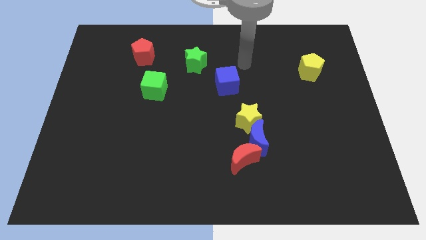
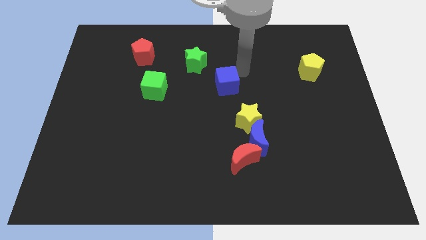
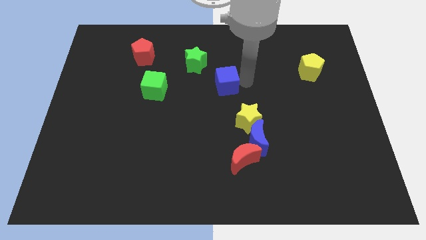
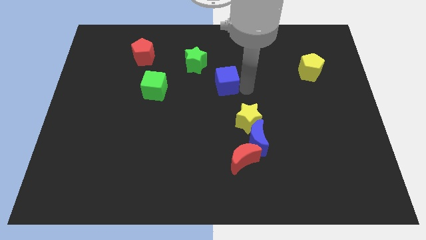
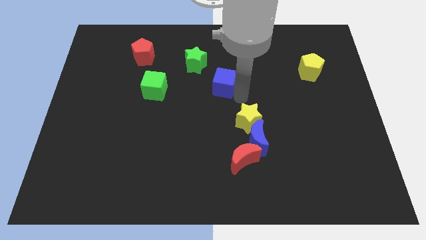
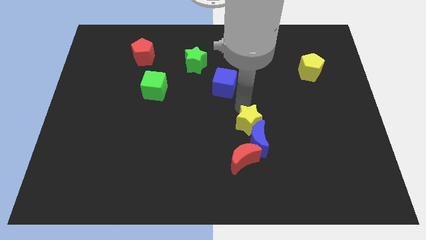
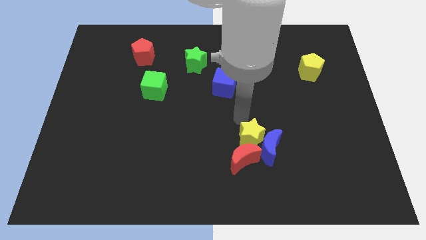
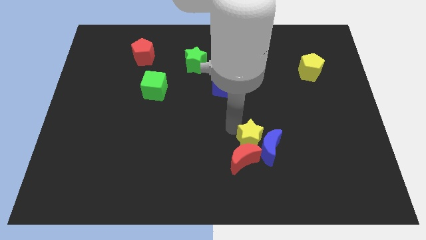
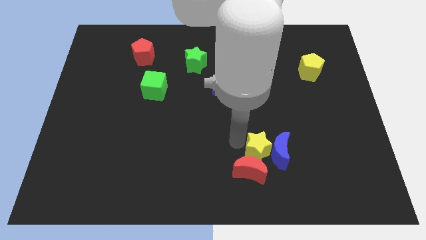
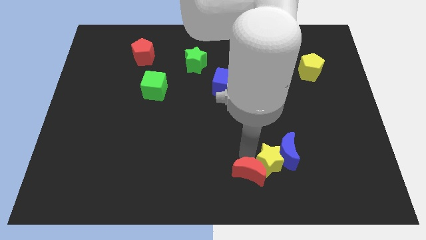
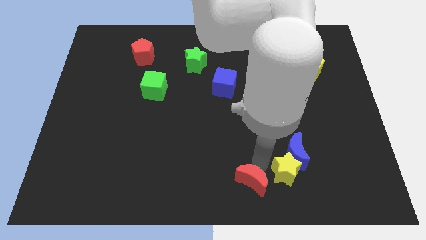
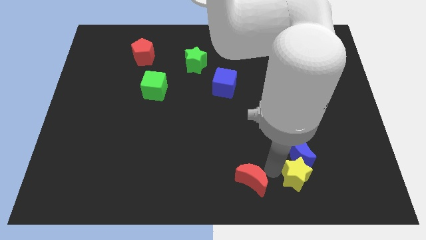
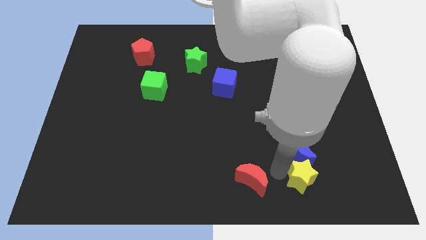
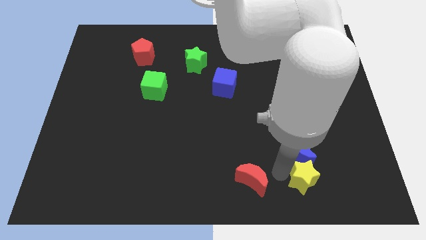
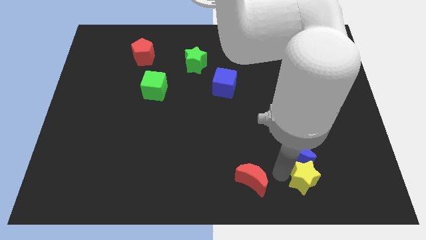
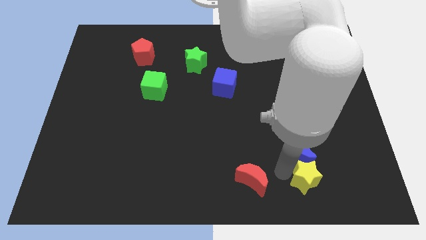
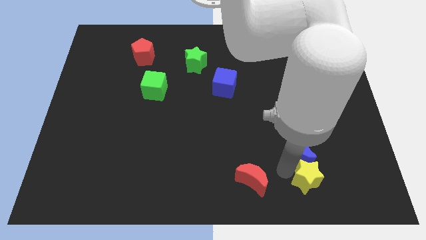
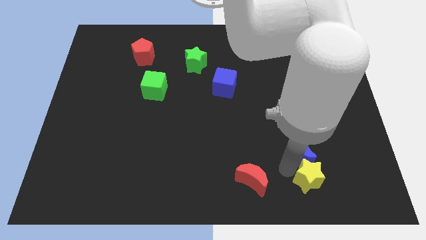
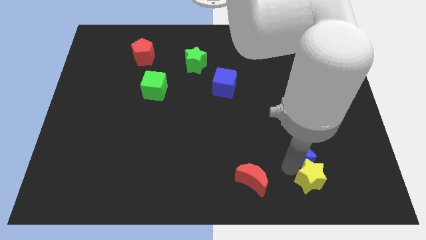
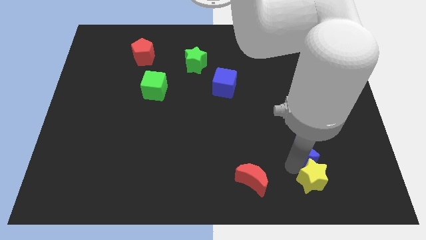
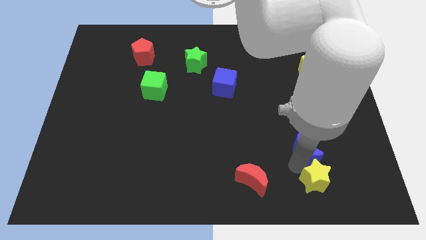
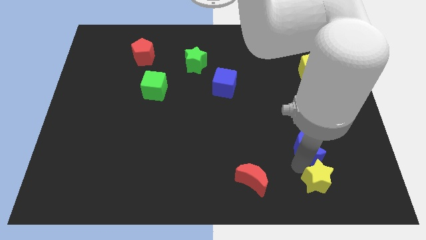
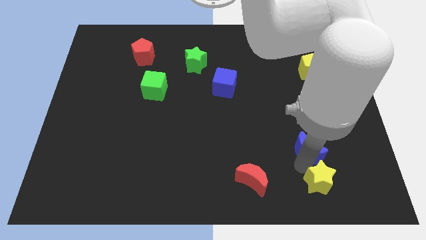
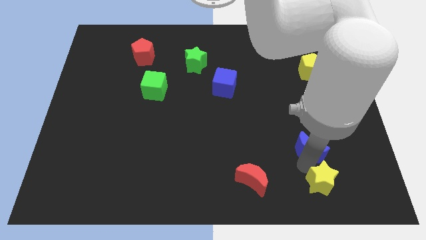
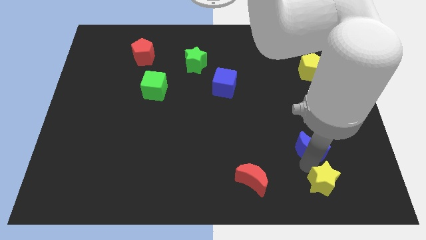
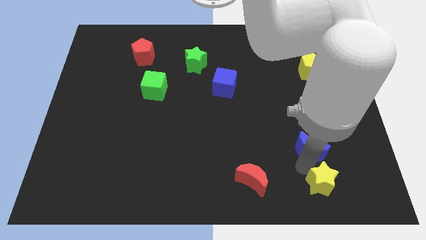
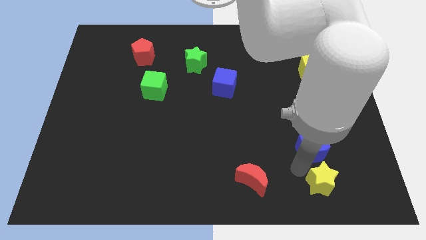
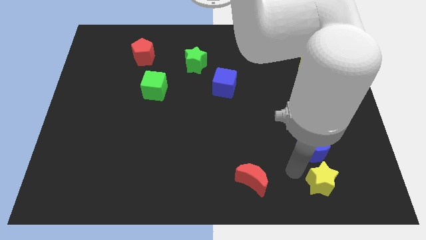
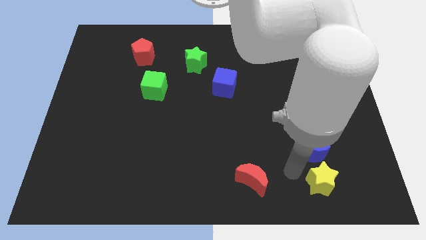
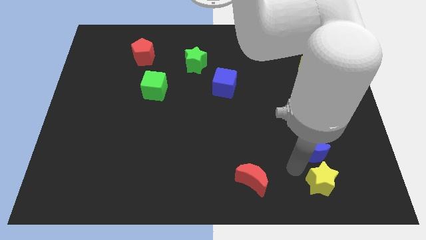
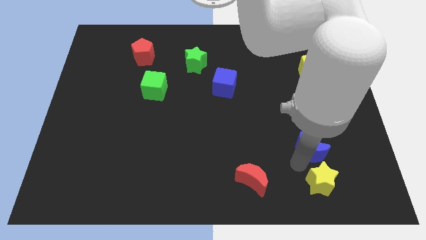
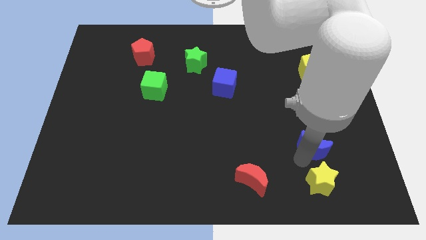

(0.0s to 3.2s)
separate the blue moon from the red moon and yellow star

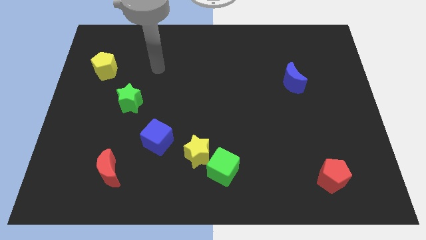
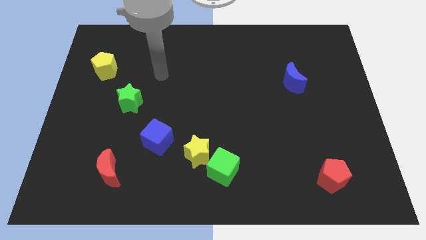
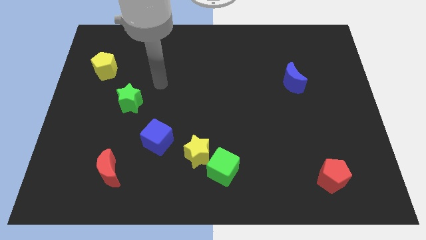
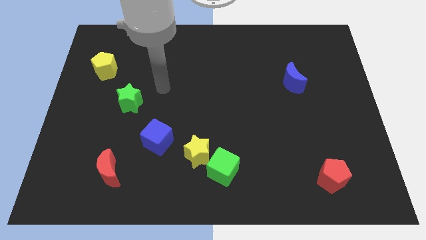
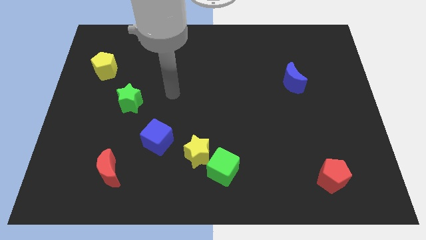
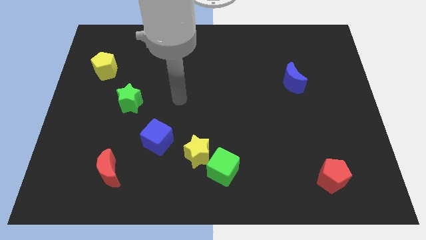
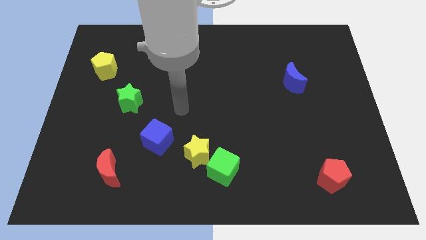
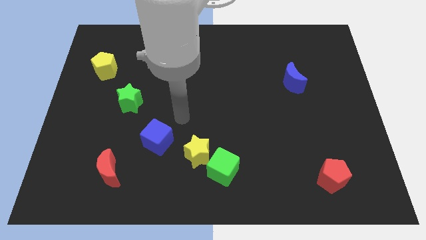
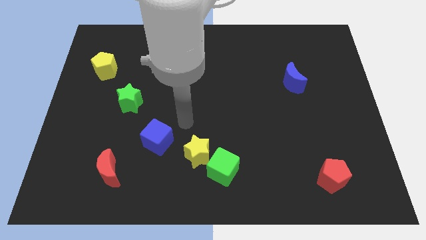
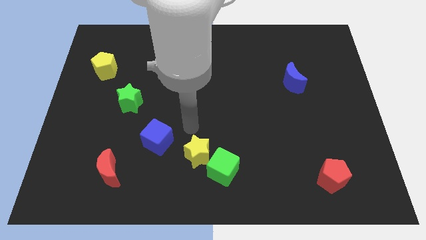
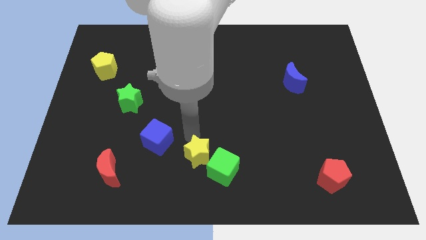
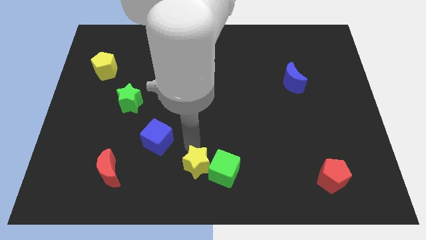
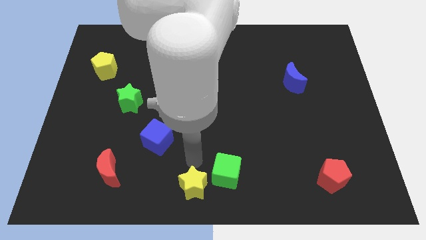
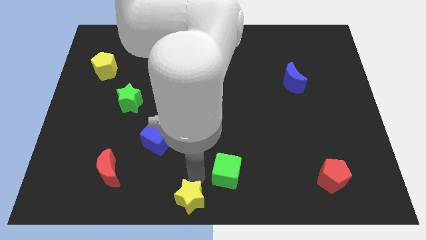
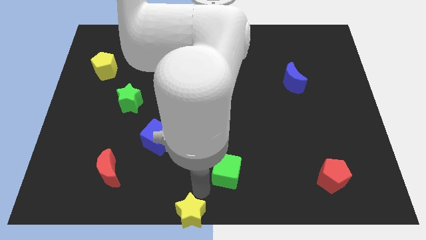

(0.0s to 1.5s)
separate the green cube from the yellow star

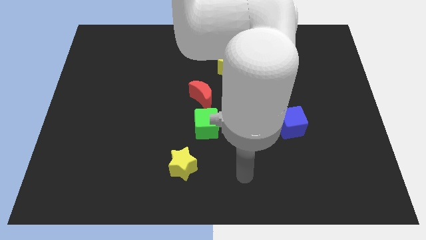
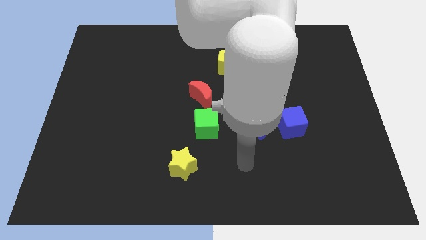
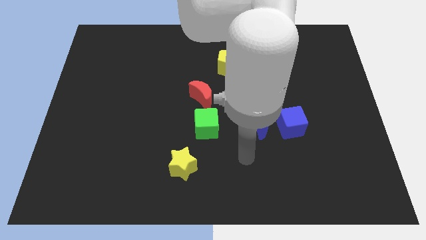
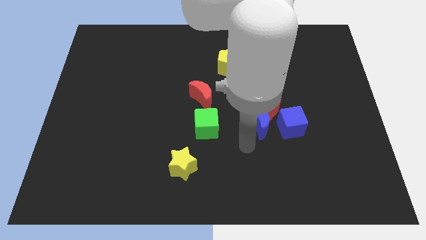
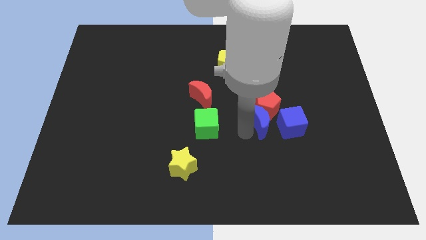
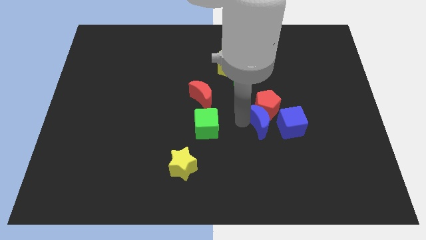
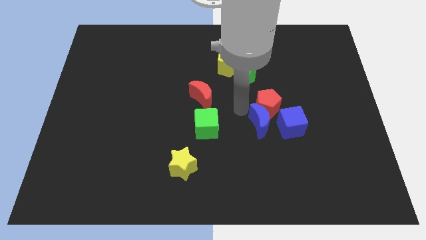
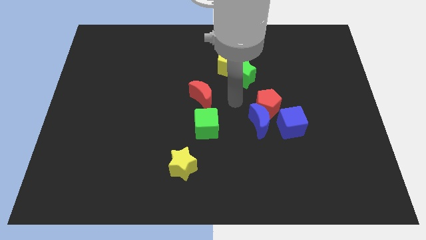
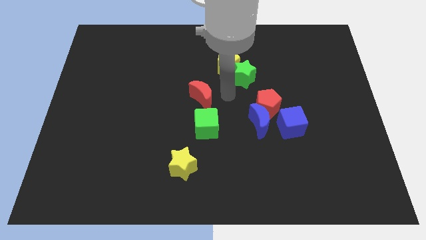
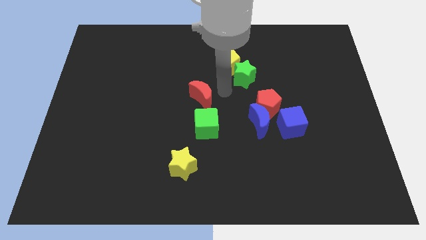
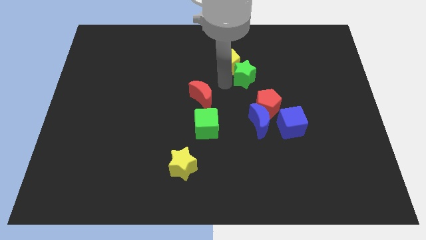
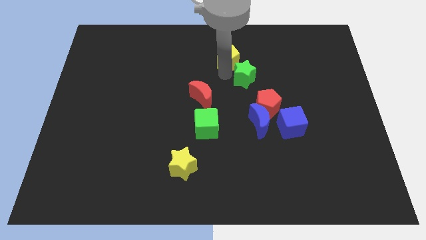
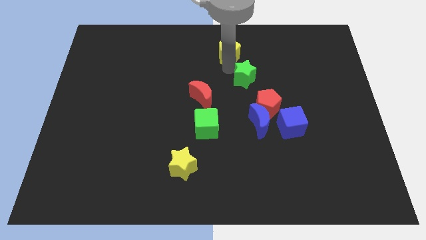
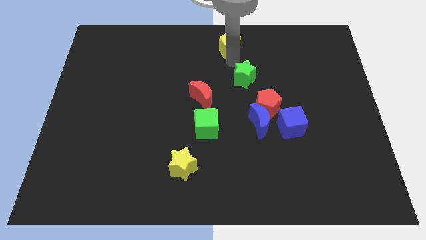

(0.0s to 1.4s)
move the green star away from the yellow pentagon

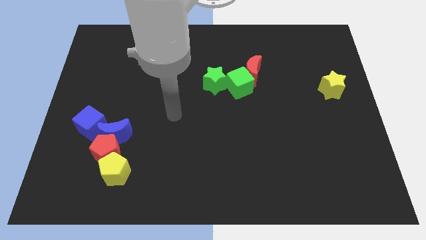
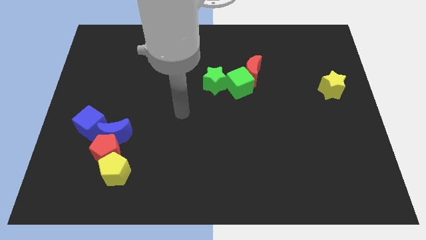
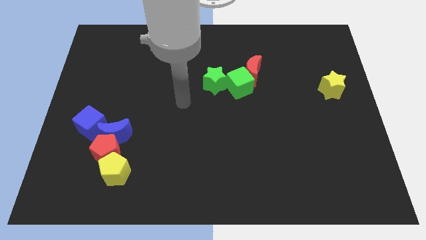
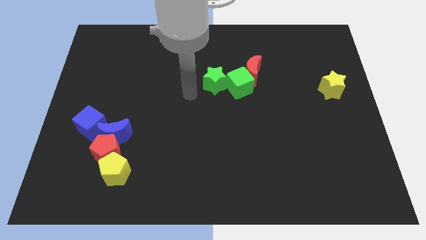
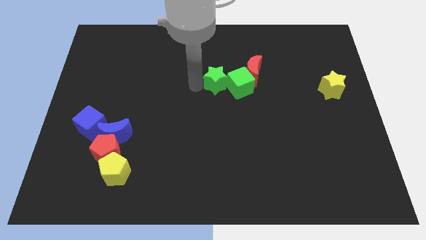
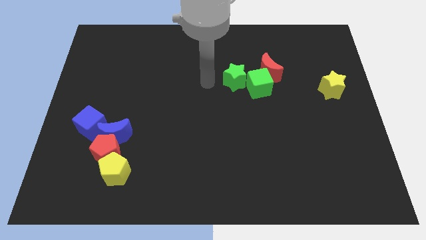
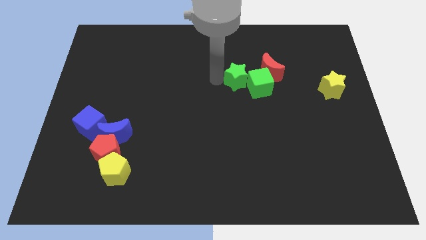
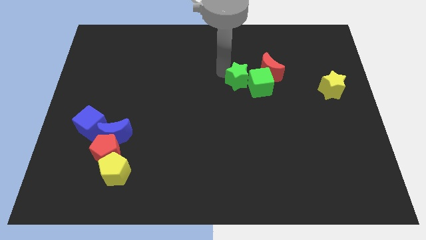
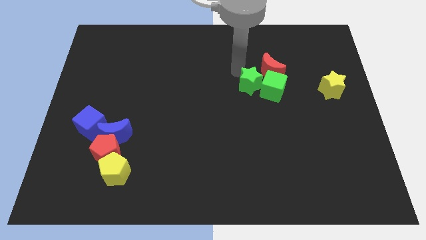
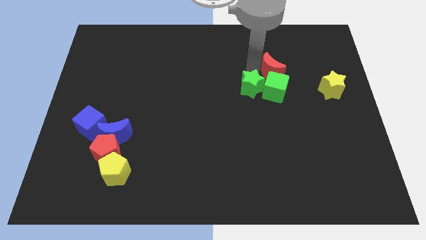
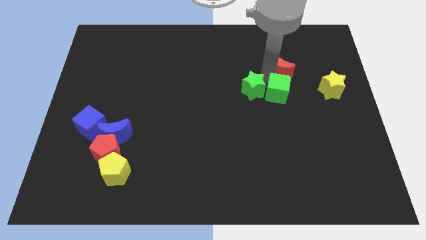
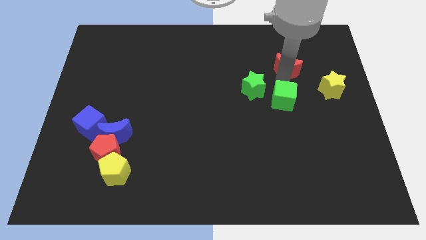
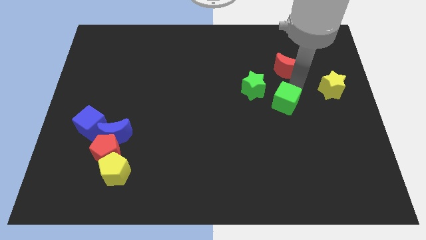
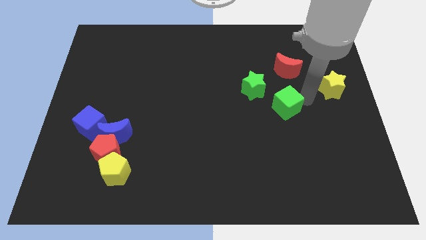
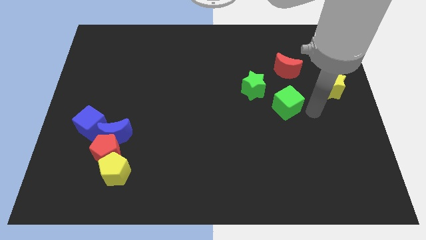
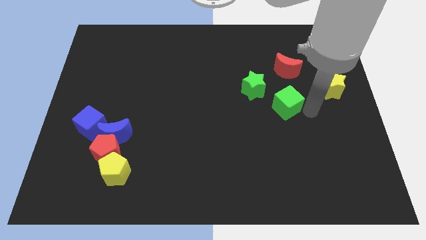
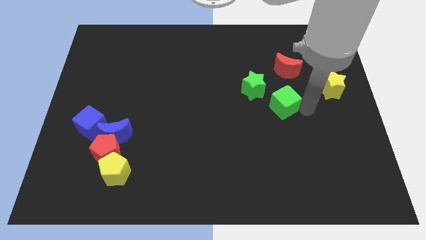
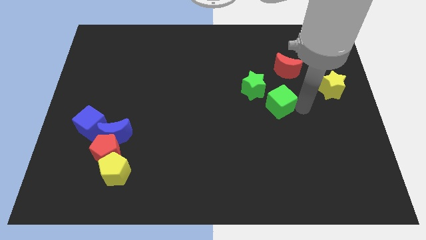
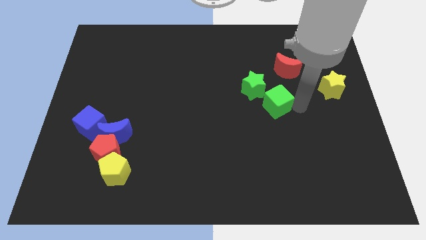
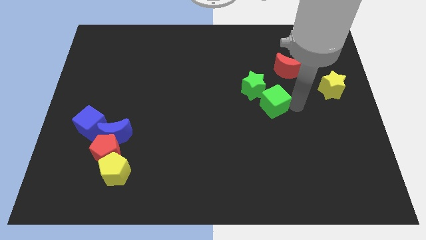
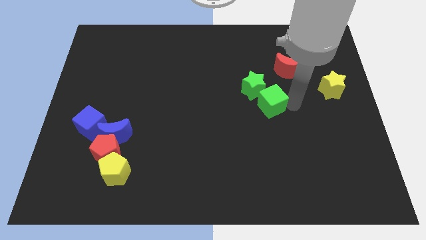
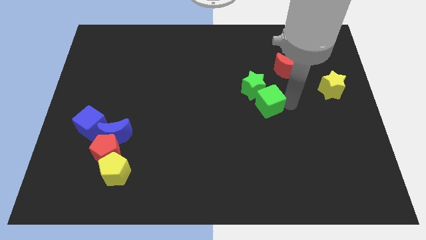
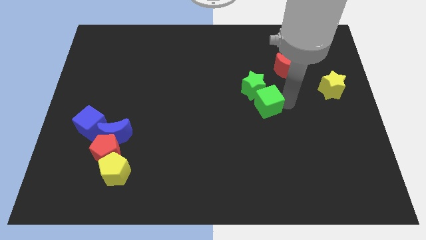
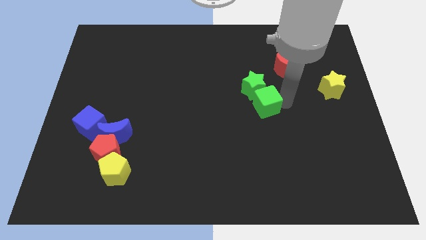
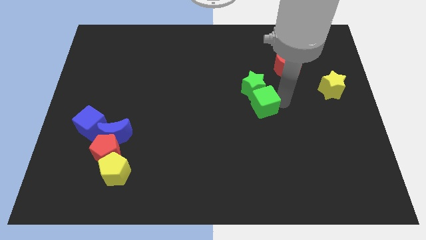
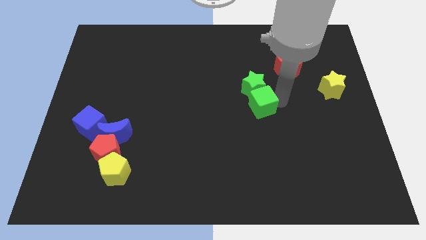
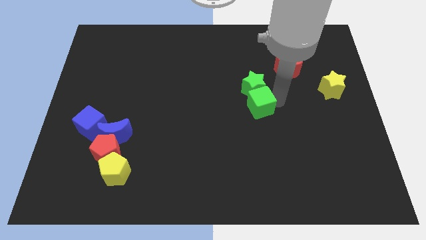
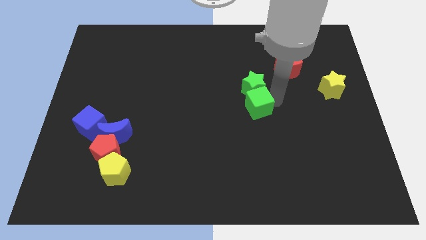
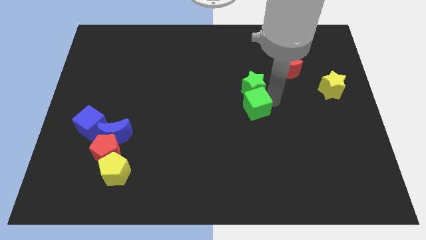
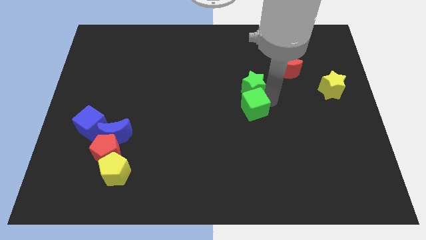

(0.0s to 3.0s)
move the green cube away from the red moon and green star

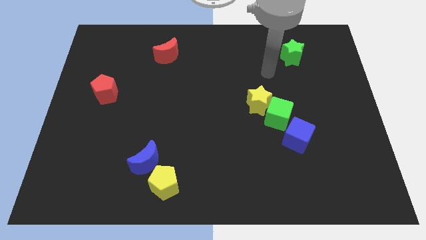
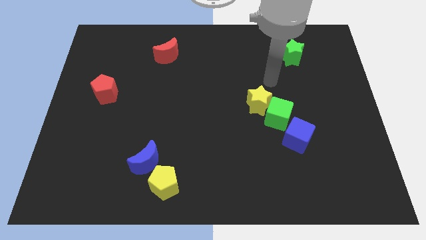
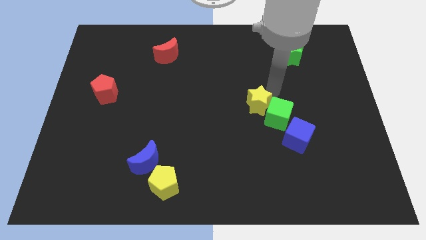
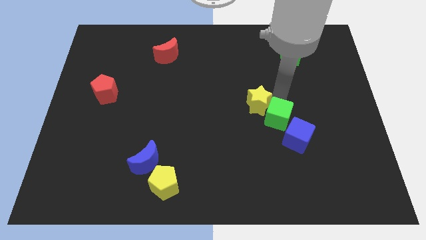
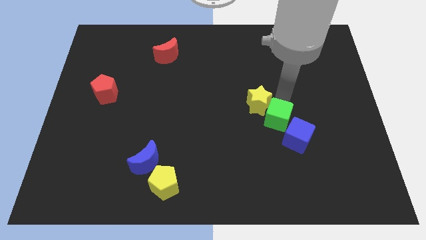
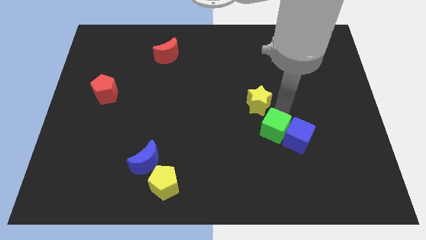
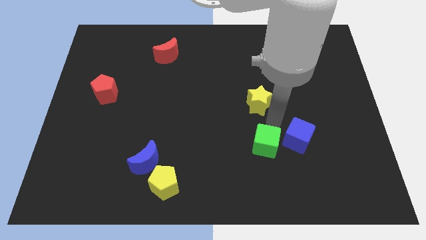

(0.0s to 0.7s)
pull the yellow star apart from the green cube
